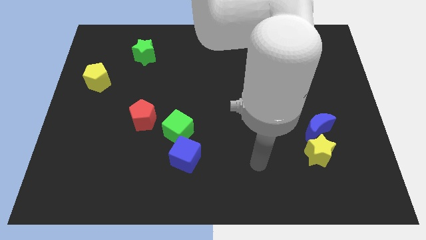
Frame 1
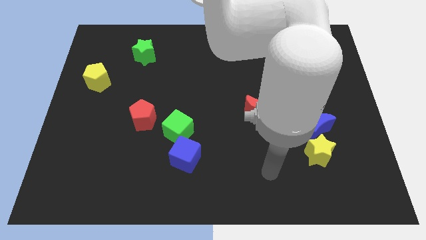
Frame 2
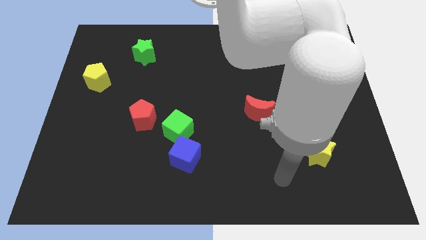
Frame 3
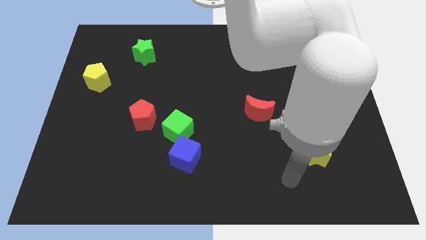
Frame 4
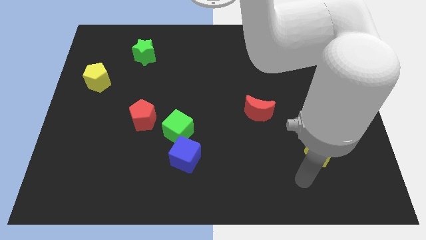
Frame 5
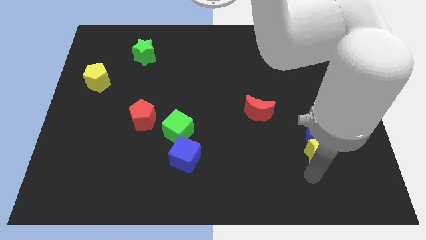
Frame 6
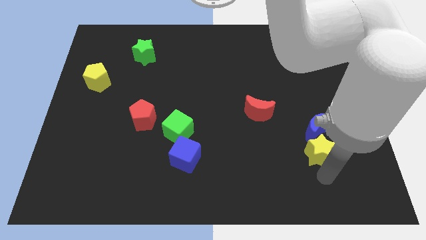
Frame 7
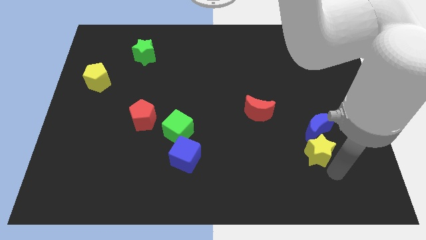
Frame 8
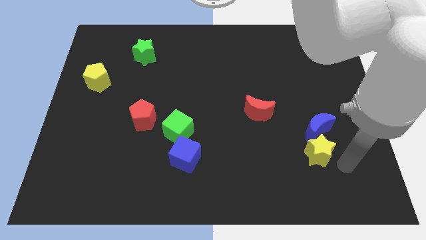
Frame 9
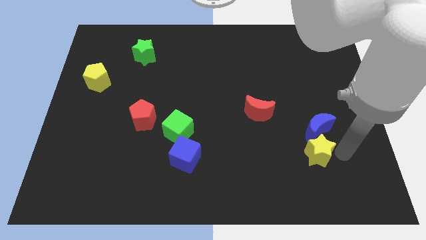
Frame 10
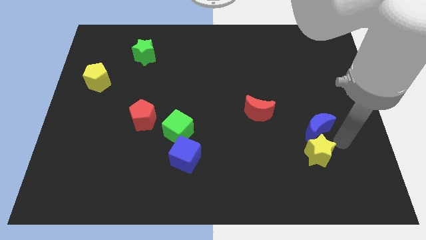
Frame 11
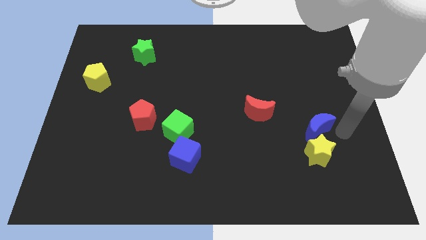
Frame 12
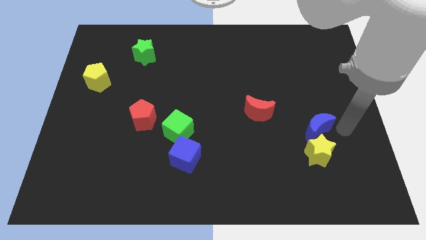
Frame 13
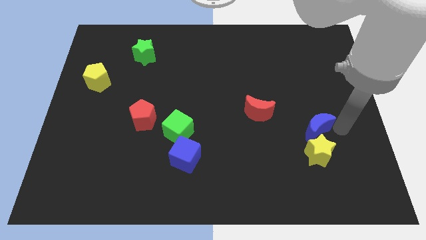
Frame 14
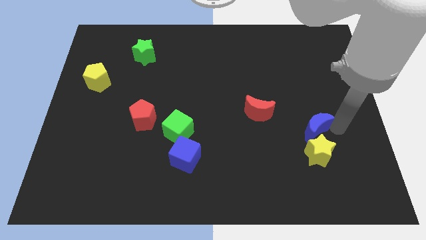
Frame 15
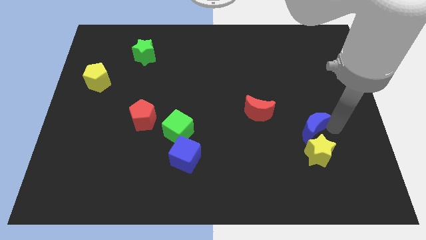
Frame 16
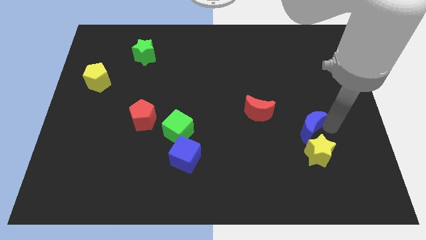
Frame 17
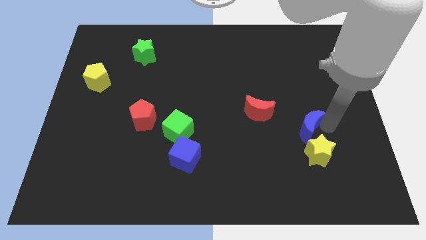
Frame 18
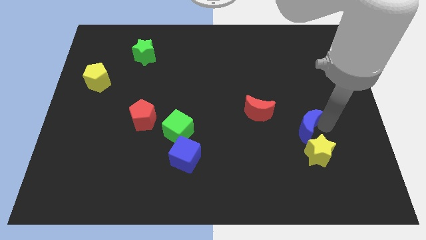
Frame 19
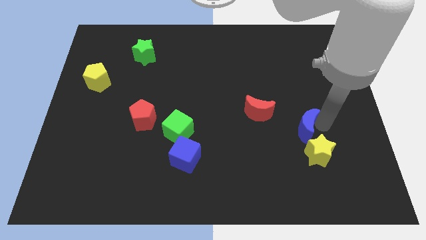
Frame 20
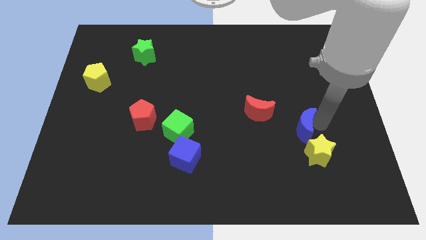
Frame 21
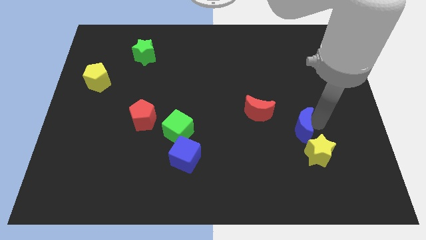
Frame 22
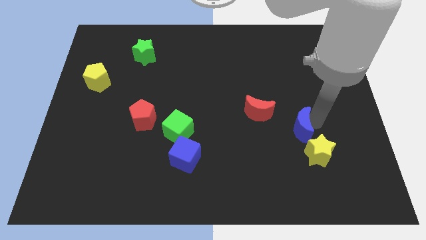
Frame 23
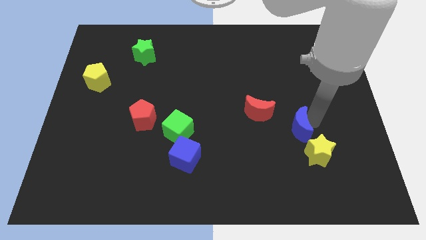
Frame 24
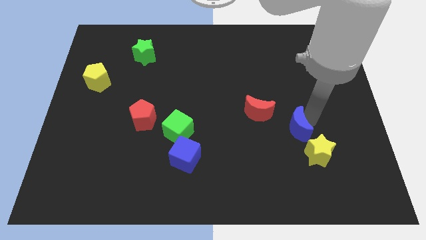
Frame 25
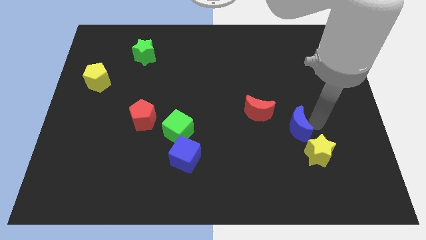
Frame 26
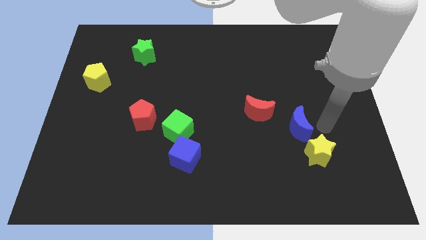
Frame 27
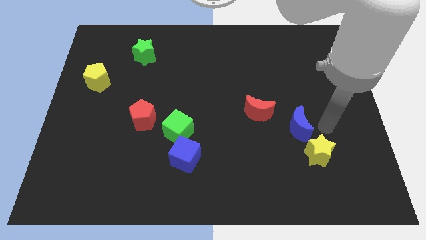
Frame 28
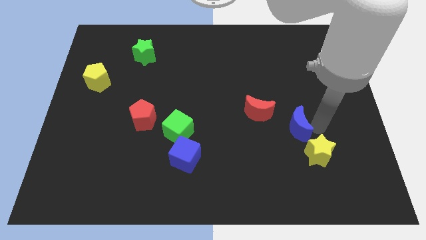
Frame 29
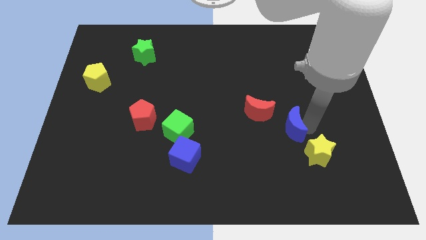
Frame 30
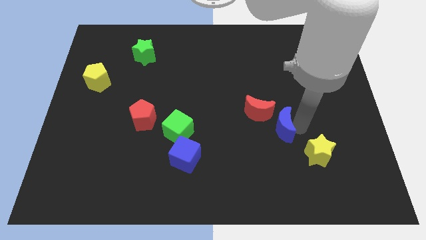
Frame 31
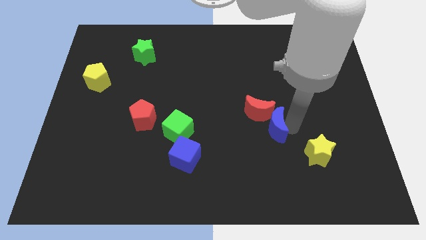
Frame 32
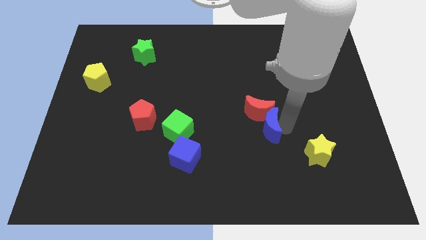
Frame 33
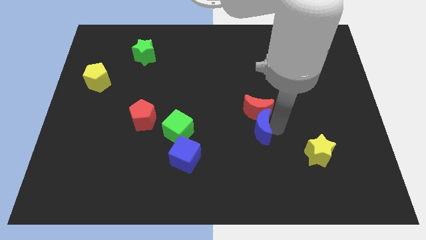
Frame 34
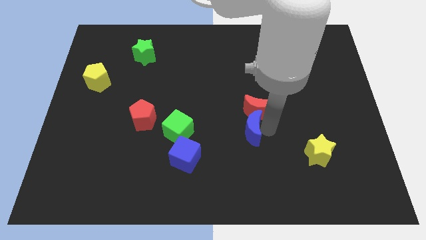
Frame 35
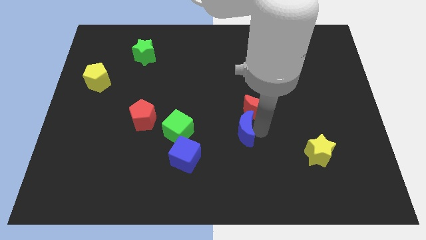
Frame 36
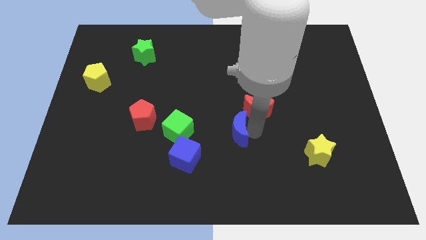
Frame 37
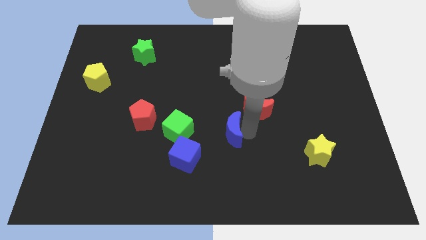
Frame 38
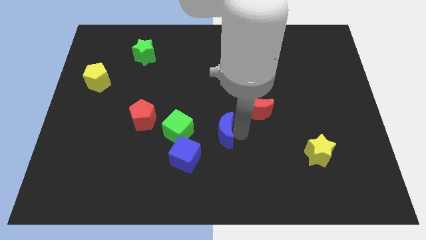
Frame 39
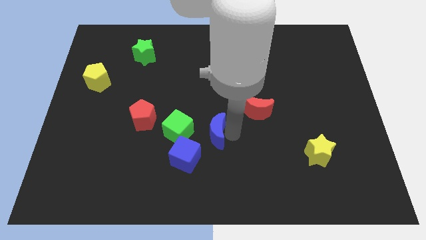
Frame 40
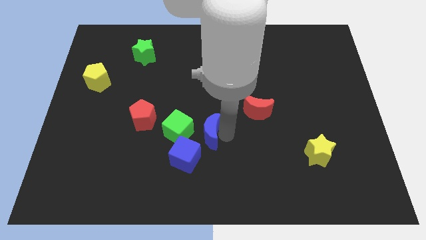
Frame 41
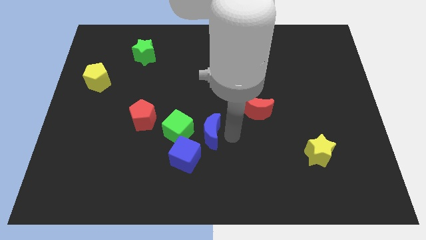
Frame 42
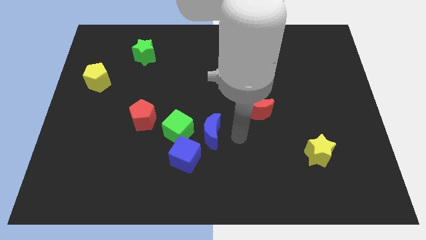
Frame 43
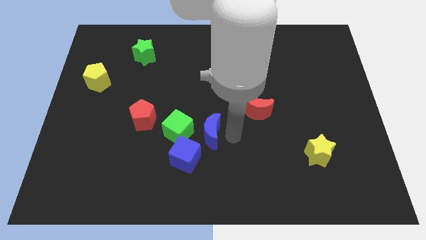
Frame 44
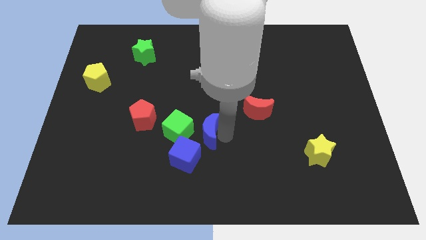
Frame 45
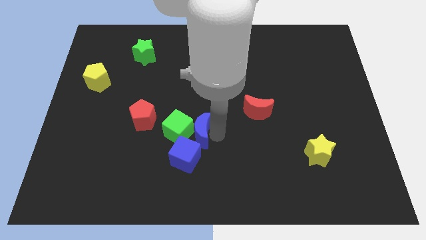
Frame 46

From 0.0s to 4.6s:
move the blue moon towards the green cube

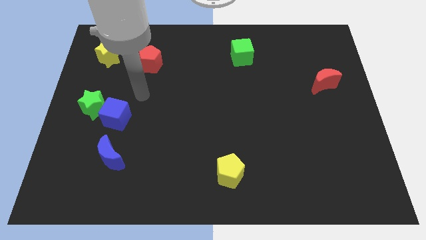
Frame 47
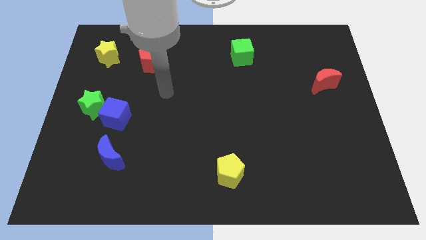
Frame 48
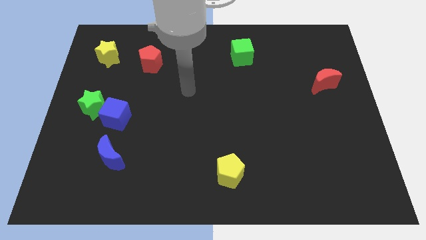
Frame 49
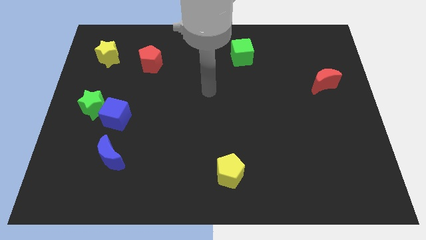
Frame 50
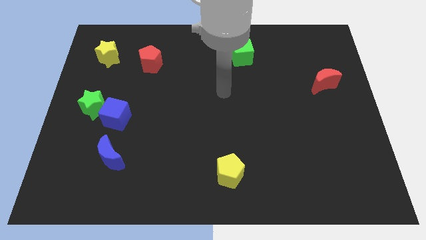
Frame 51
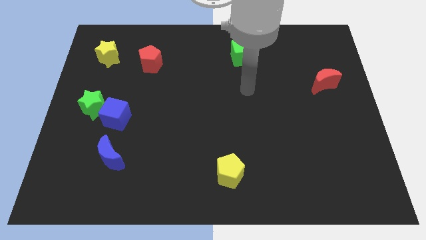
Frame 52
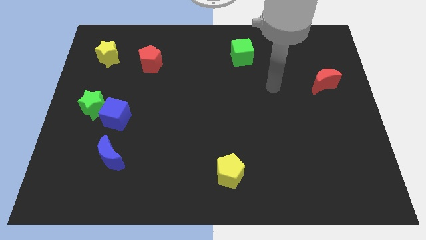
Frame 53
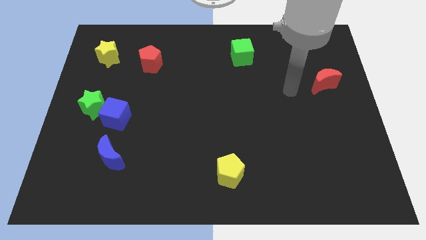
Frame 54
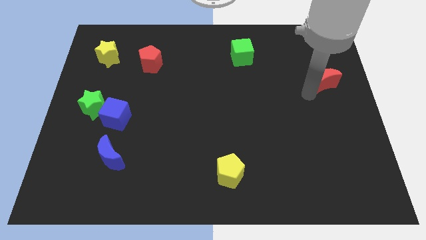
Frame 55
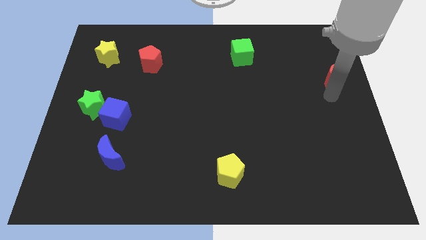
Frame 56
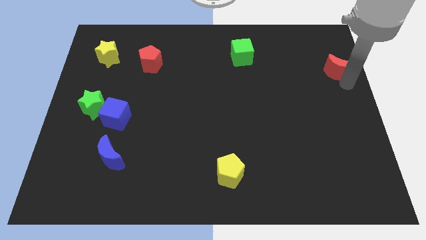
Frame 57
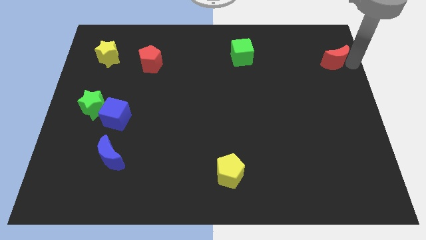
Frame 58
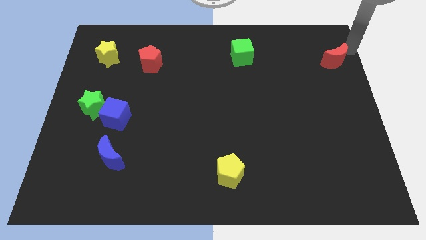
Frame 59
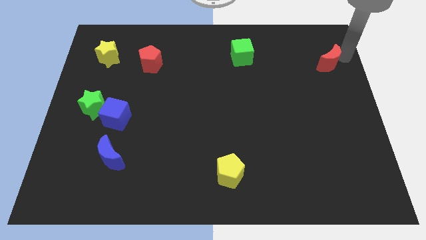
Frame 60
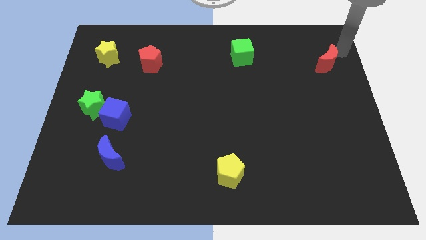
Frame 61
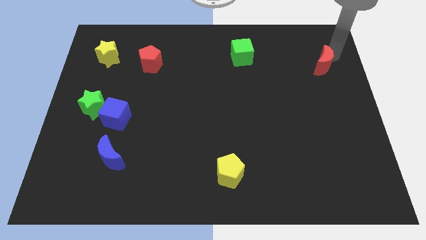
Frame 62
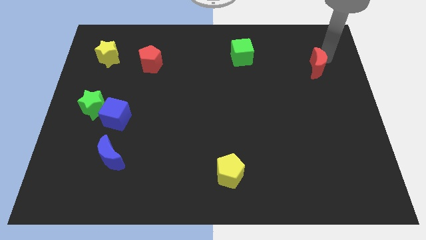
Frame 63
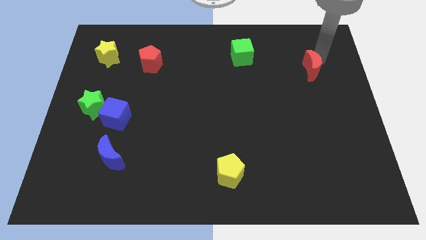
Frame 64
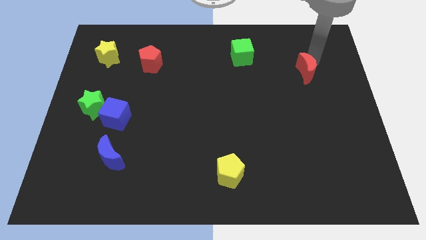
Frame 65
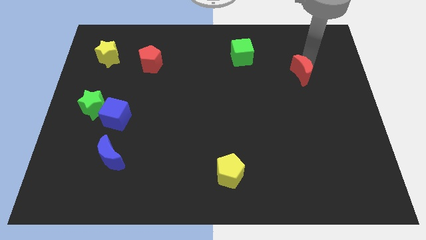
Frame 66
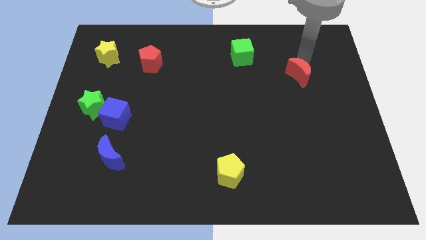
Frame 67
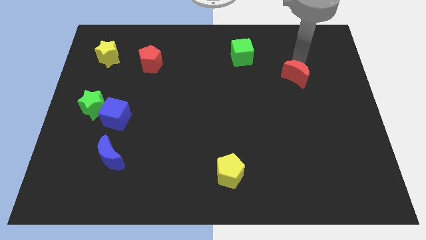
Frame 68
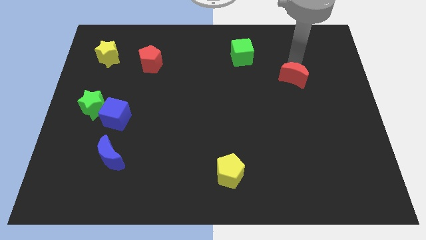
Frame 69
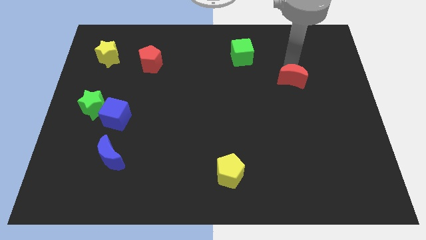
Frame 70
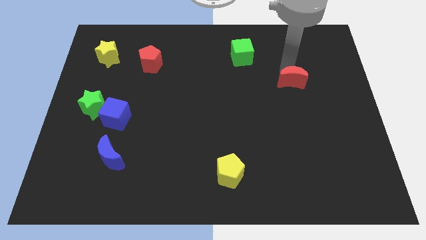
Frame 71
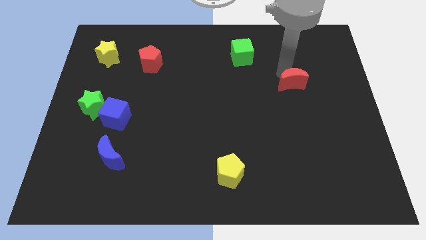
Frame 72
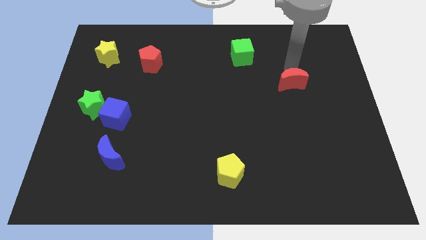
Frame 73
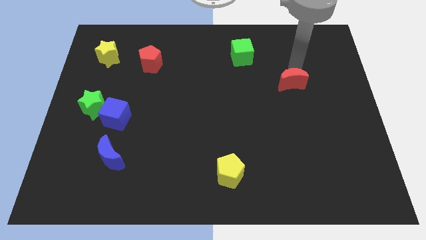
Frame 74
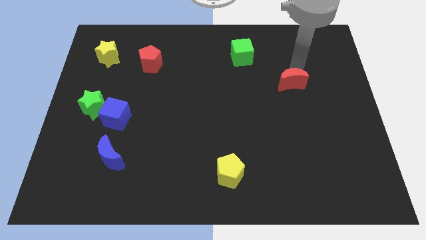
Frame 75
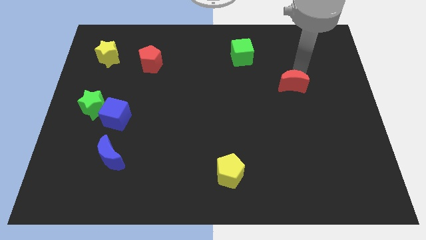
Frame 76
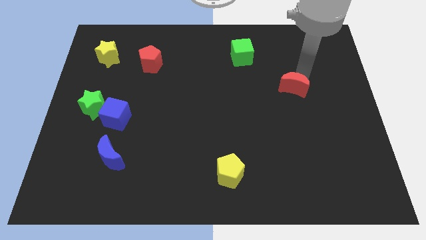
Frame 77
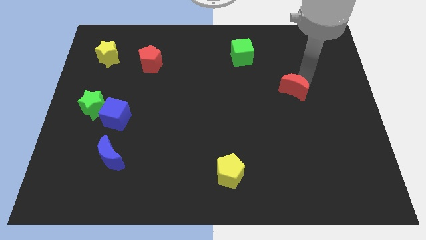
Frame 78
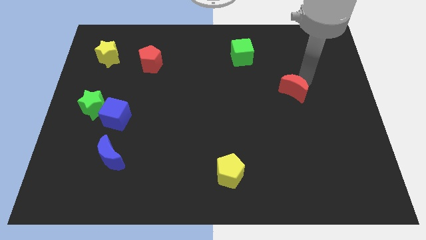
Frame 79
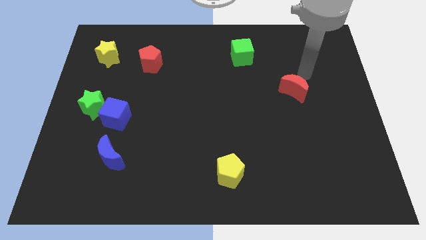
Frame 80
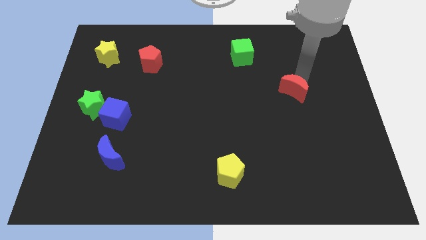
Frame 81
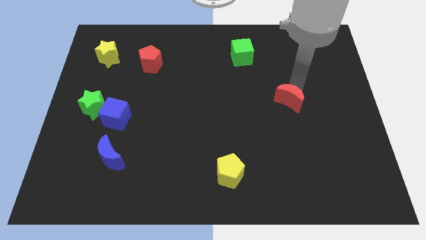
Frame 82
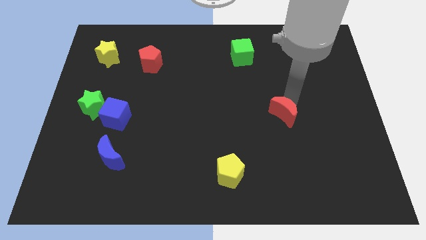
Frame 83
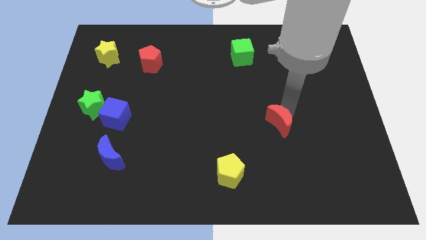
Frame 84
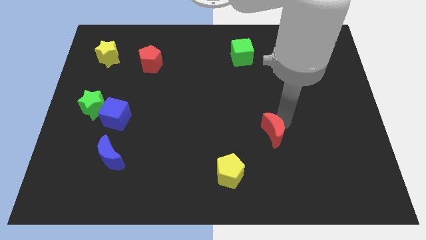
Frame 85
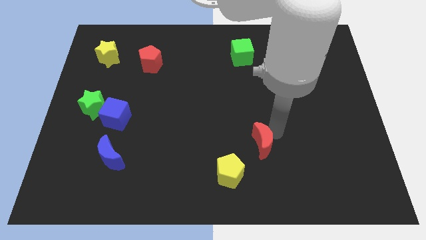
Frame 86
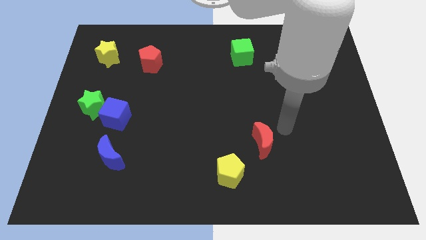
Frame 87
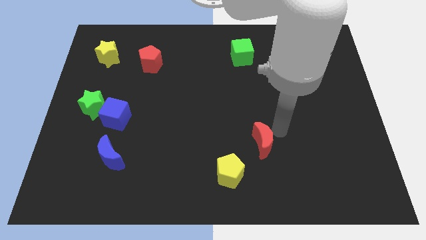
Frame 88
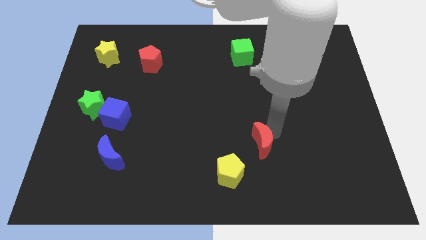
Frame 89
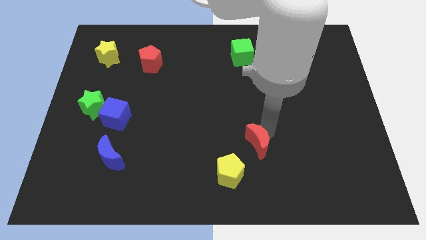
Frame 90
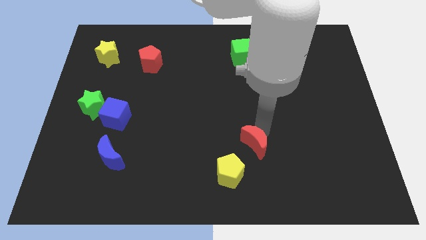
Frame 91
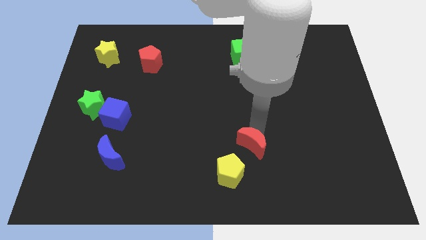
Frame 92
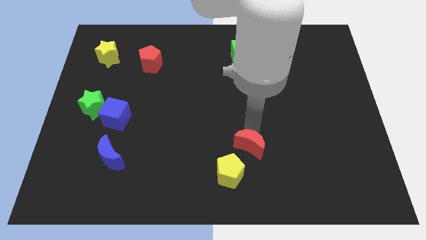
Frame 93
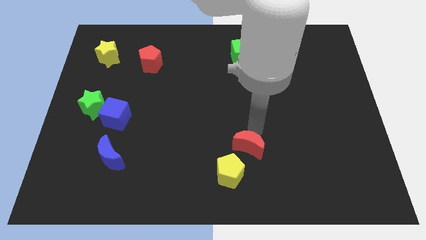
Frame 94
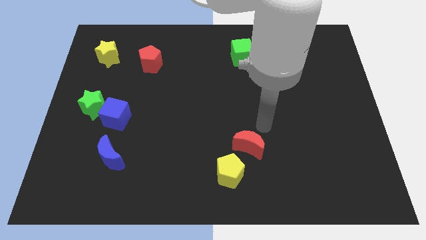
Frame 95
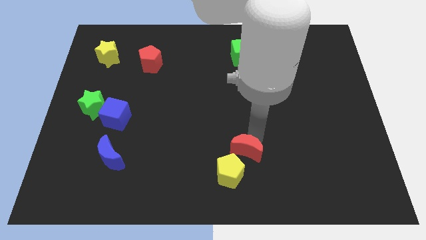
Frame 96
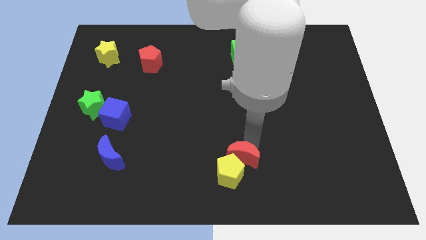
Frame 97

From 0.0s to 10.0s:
push the red moon to the yellow pentagon
